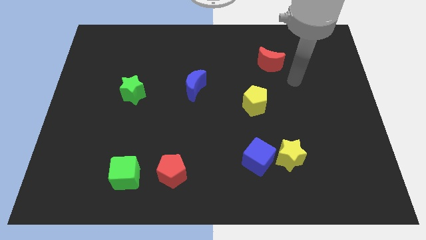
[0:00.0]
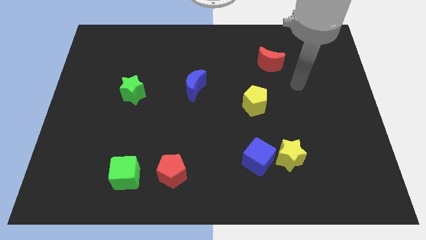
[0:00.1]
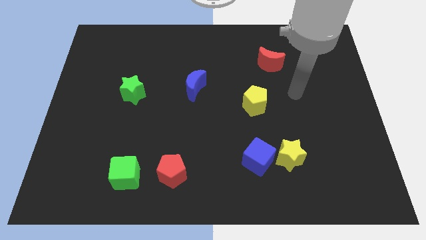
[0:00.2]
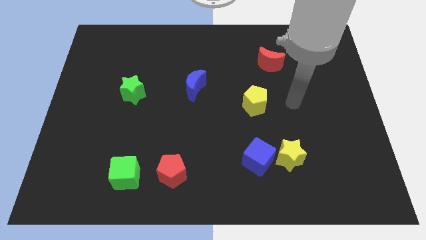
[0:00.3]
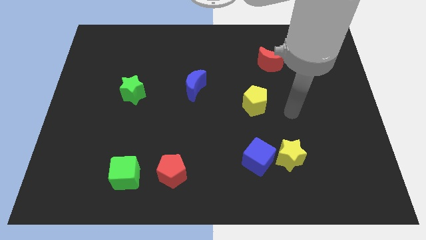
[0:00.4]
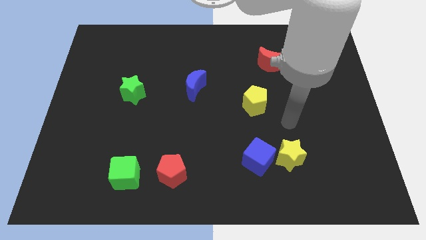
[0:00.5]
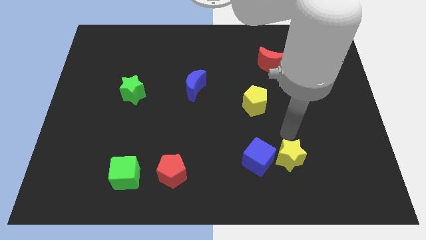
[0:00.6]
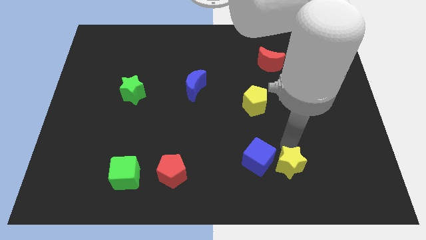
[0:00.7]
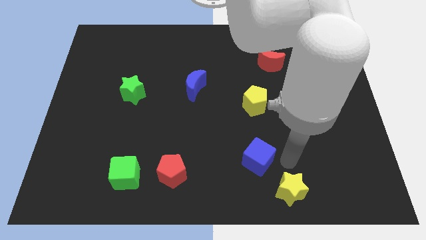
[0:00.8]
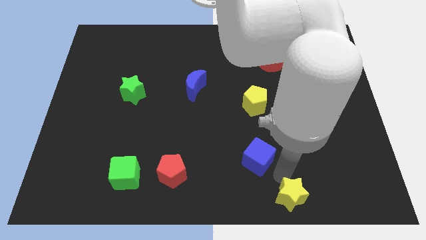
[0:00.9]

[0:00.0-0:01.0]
separate the blue cube from the yellow star

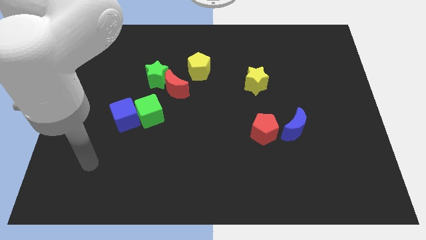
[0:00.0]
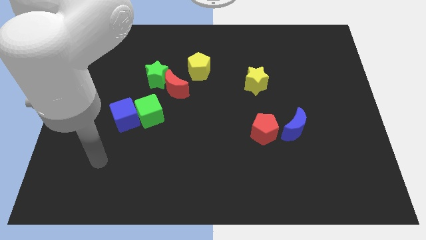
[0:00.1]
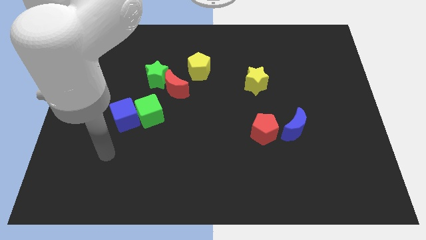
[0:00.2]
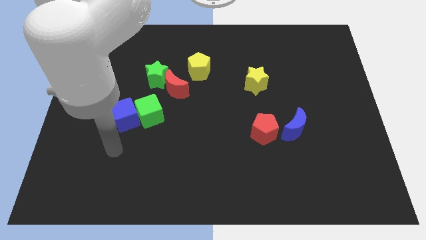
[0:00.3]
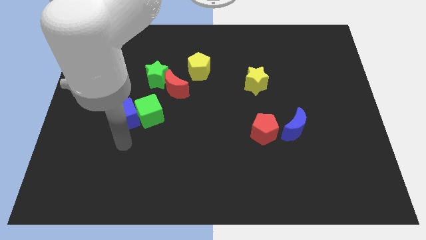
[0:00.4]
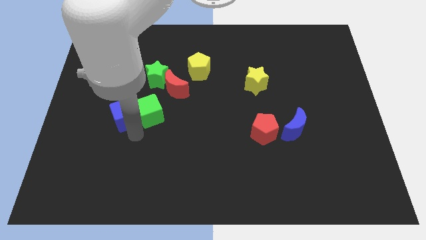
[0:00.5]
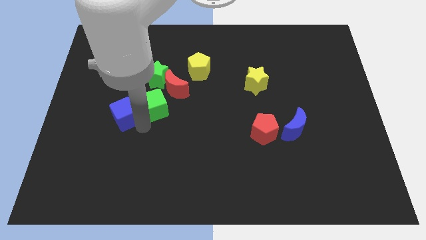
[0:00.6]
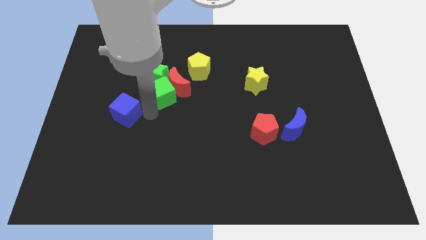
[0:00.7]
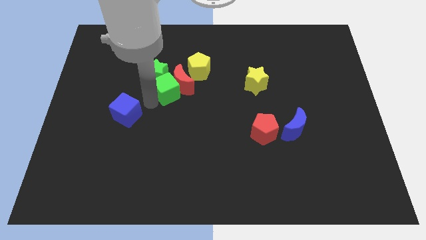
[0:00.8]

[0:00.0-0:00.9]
separate the blue cube from the green cube

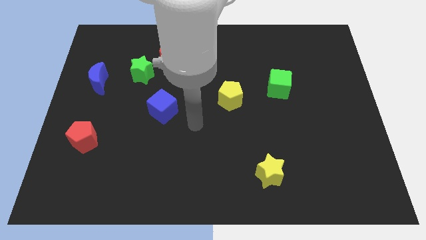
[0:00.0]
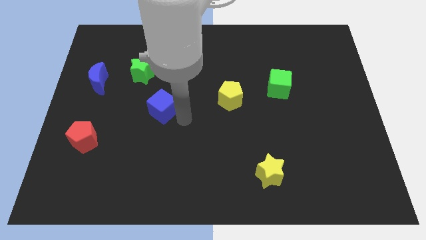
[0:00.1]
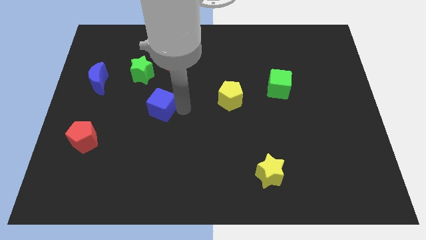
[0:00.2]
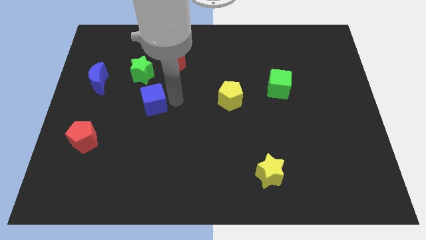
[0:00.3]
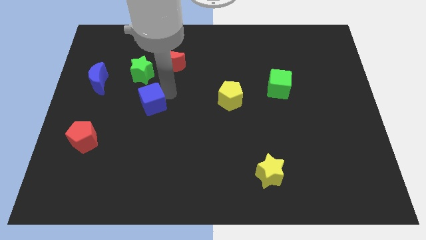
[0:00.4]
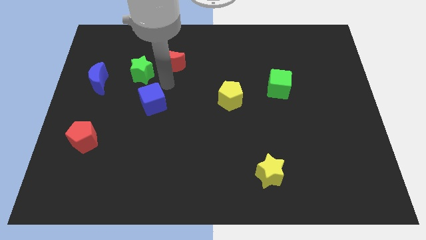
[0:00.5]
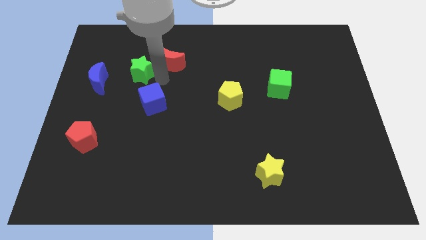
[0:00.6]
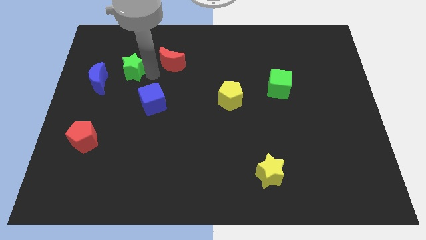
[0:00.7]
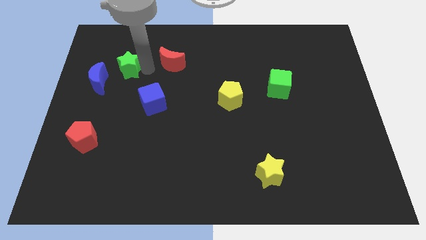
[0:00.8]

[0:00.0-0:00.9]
separate the red moon from the green star

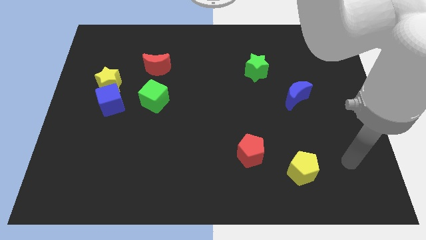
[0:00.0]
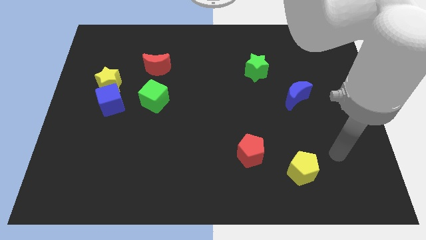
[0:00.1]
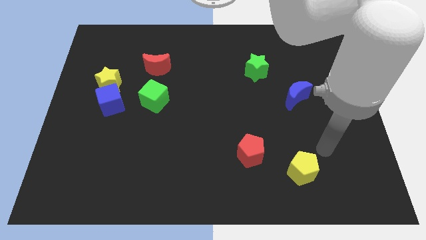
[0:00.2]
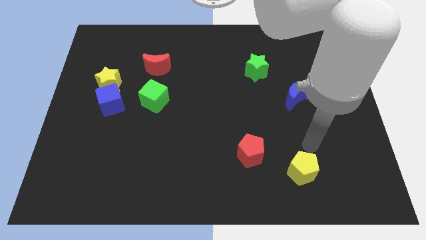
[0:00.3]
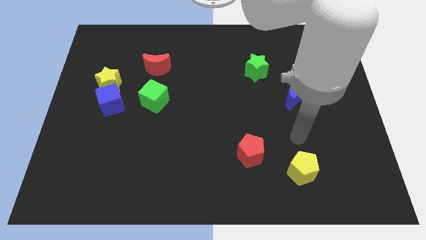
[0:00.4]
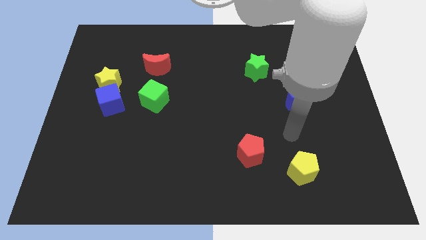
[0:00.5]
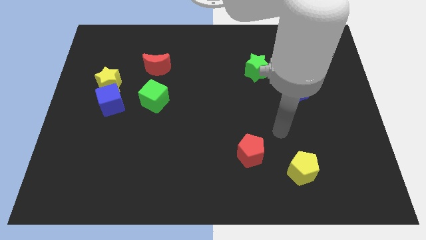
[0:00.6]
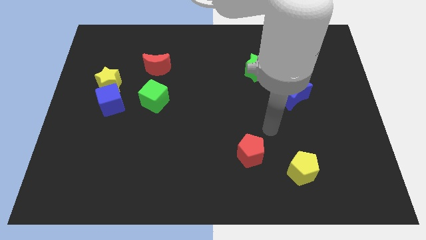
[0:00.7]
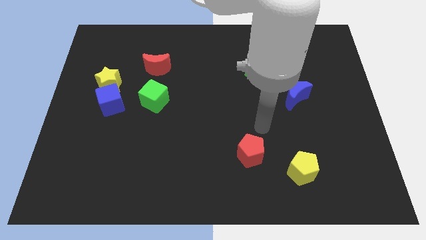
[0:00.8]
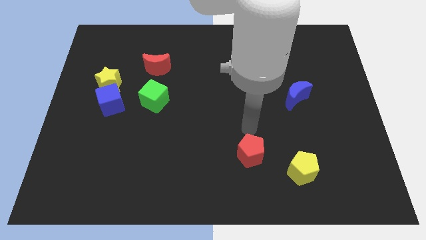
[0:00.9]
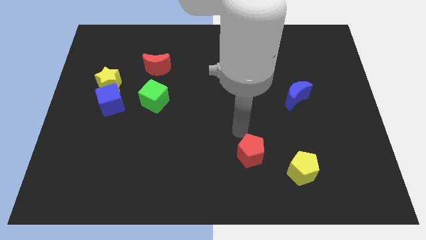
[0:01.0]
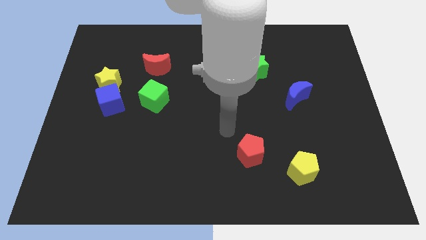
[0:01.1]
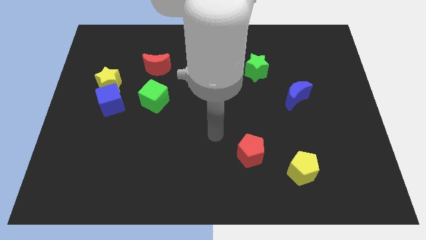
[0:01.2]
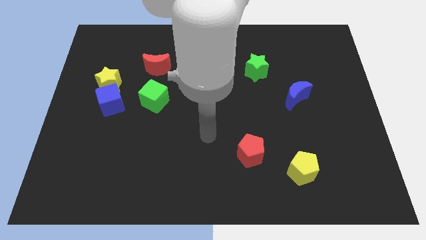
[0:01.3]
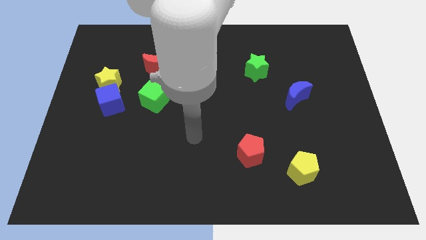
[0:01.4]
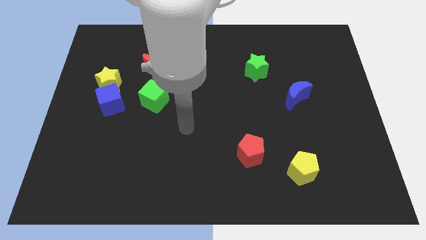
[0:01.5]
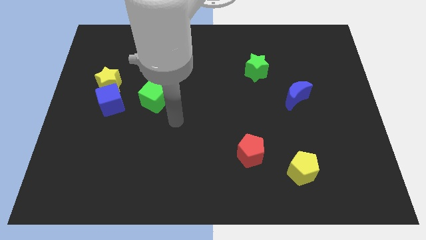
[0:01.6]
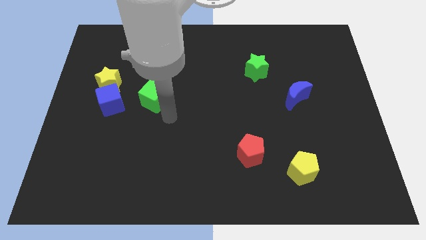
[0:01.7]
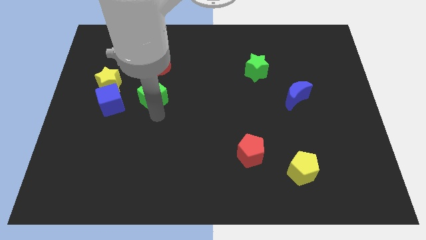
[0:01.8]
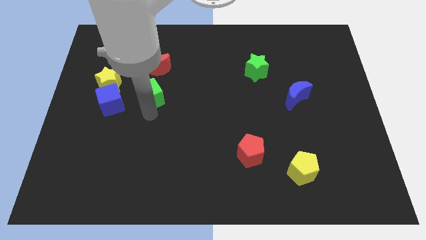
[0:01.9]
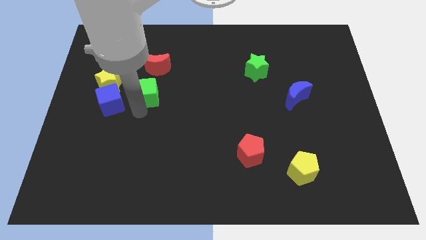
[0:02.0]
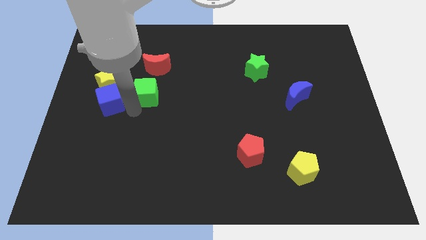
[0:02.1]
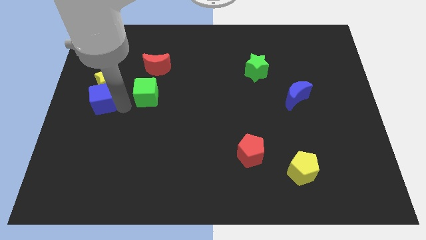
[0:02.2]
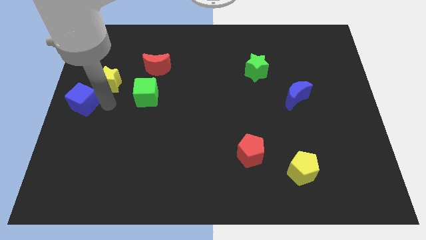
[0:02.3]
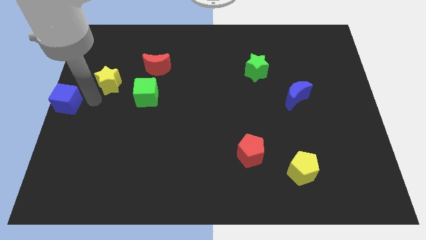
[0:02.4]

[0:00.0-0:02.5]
separate the yellow star from the blue cube

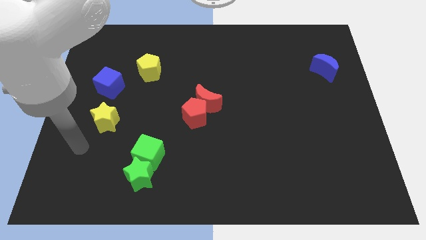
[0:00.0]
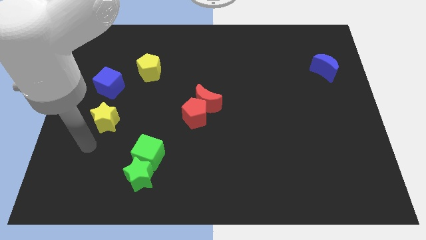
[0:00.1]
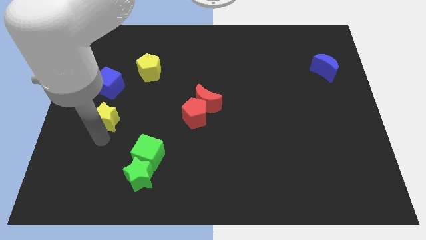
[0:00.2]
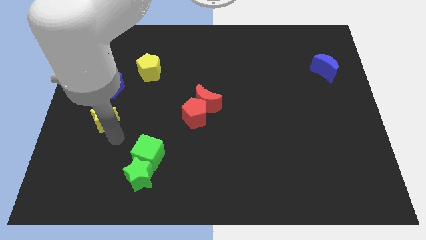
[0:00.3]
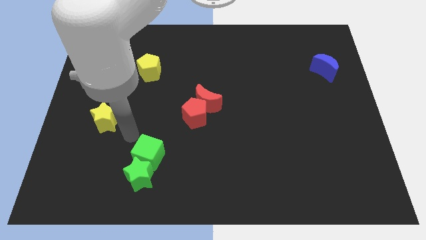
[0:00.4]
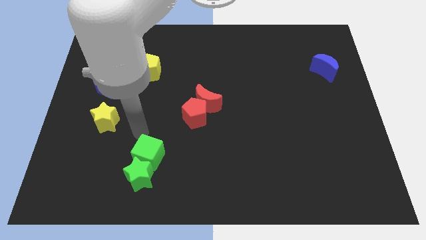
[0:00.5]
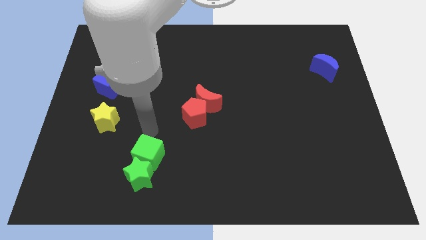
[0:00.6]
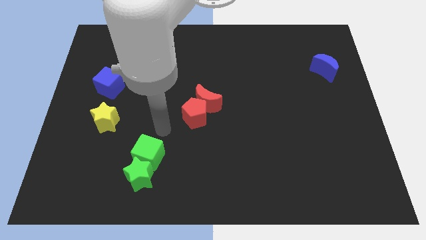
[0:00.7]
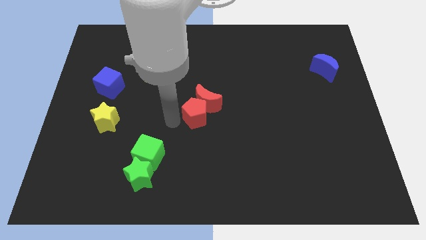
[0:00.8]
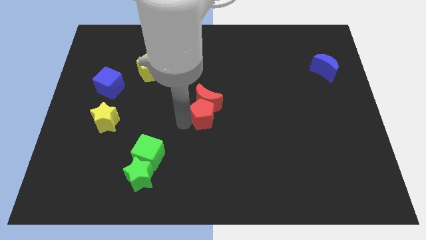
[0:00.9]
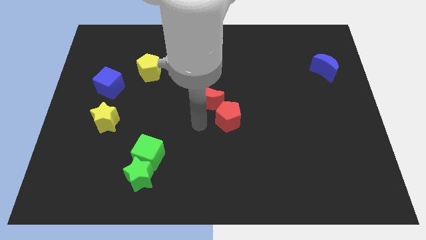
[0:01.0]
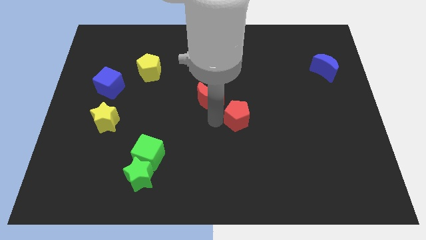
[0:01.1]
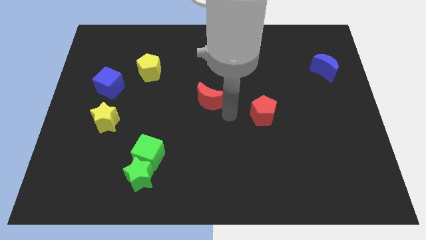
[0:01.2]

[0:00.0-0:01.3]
separate the red moon from the red pentagon

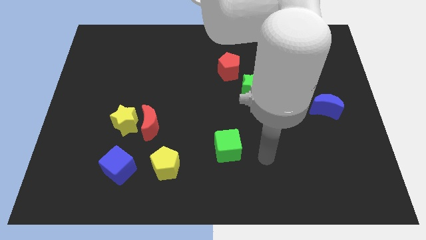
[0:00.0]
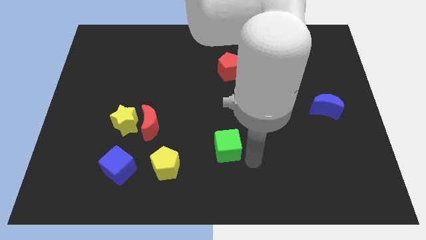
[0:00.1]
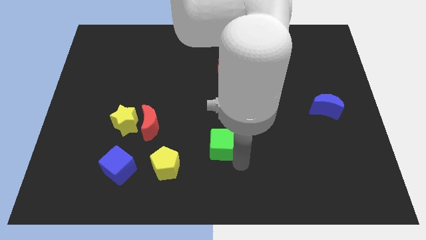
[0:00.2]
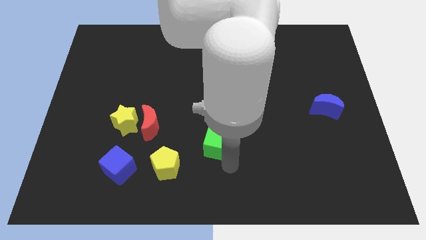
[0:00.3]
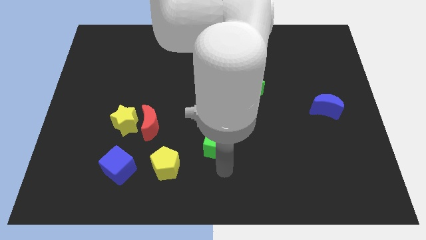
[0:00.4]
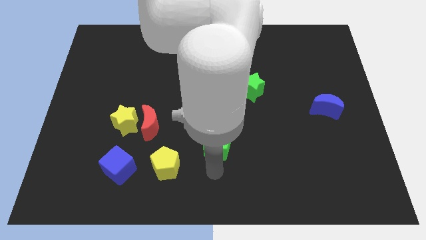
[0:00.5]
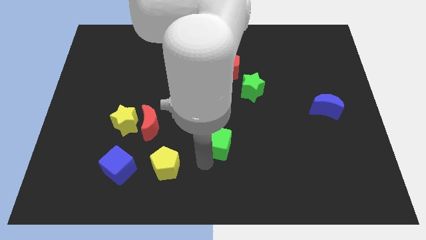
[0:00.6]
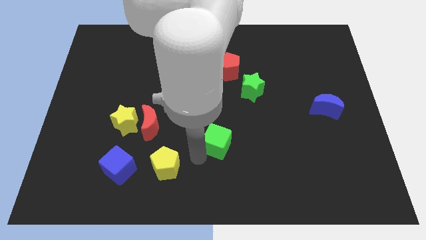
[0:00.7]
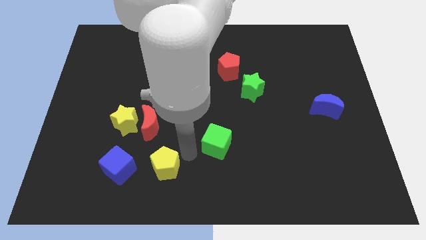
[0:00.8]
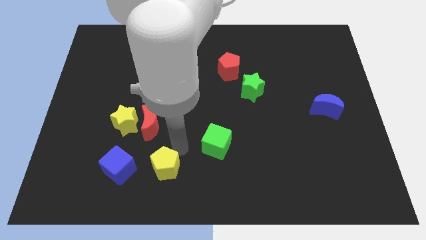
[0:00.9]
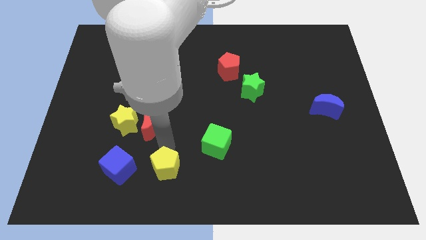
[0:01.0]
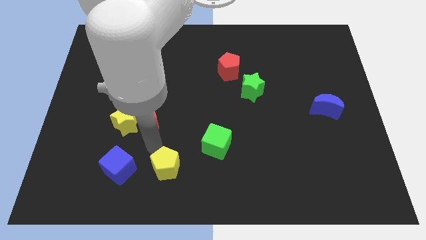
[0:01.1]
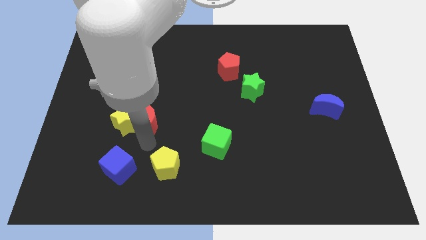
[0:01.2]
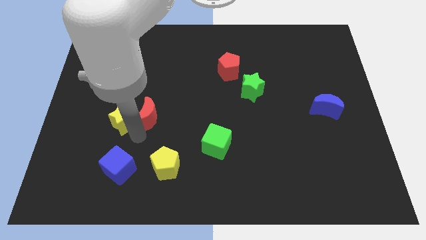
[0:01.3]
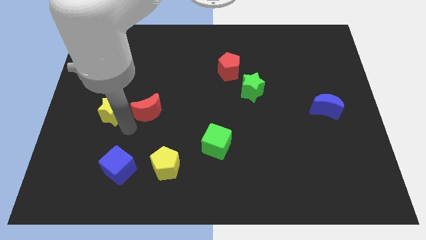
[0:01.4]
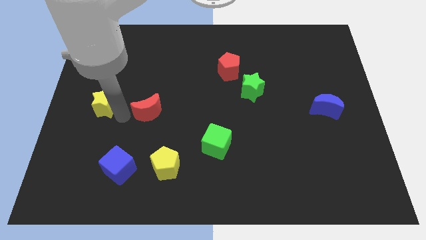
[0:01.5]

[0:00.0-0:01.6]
pull the red moon apart from the yellow star

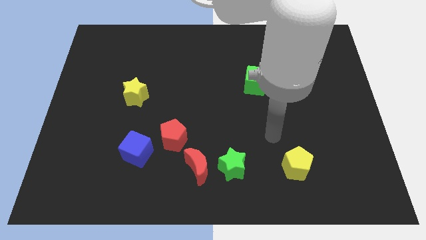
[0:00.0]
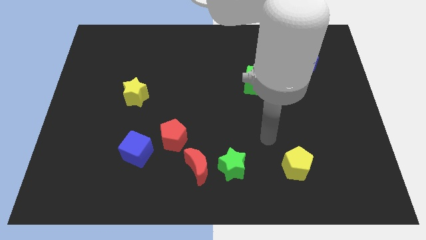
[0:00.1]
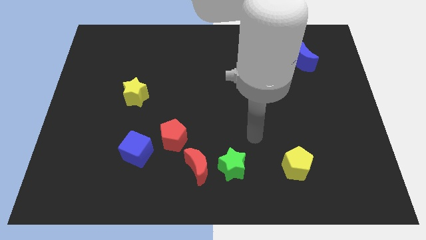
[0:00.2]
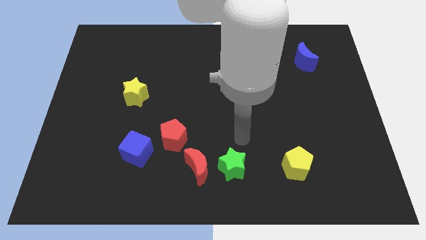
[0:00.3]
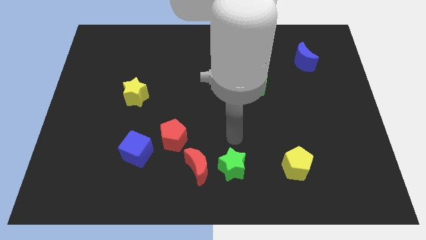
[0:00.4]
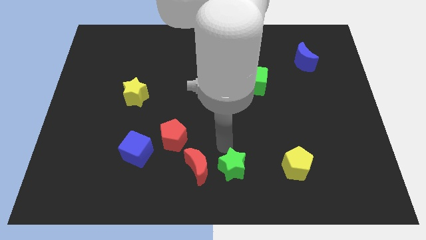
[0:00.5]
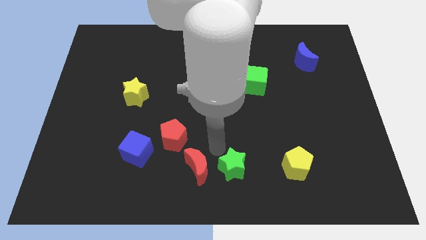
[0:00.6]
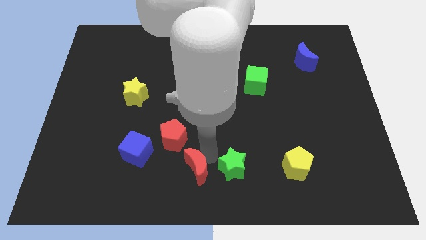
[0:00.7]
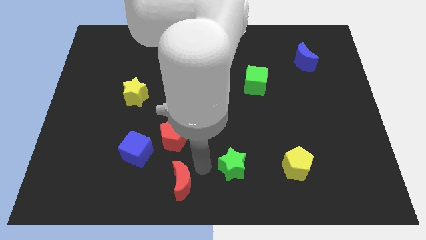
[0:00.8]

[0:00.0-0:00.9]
move the green star away from the red moon
